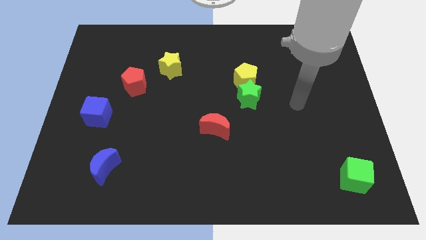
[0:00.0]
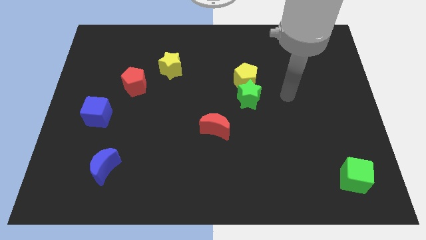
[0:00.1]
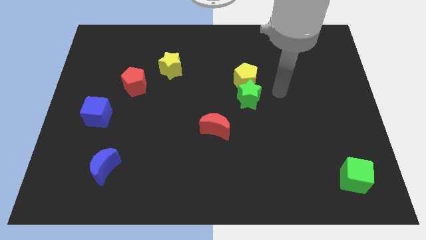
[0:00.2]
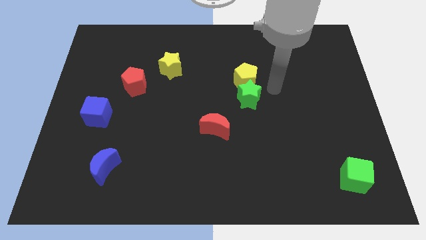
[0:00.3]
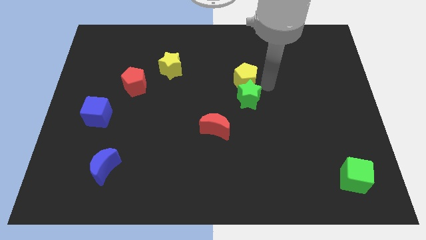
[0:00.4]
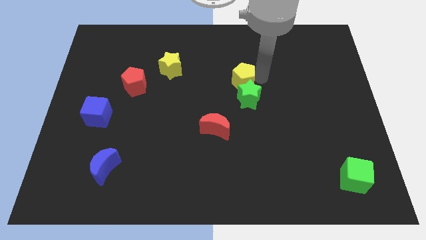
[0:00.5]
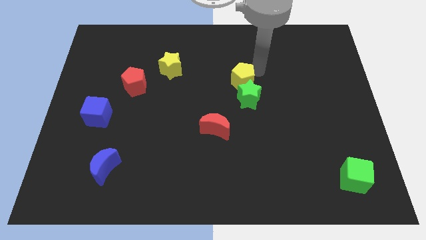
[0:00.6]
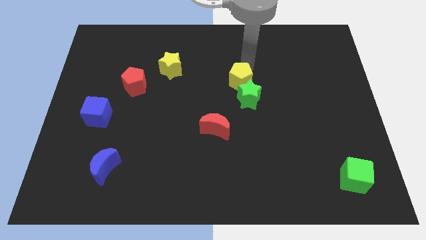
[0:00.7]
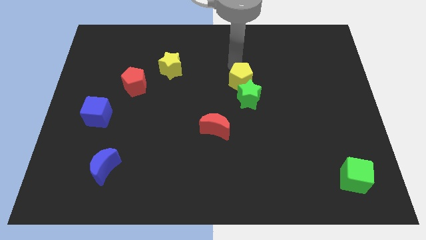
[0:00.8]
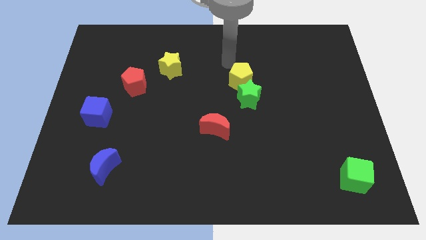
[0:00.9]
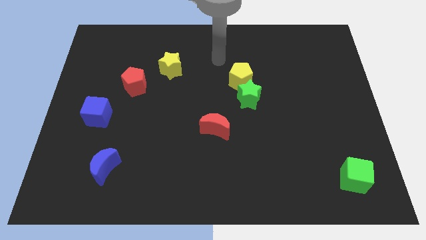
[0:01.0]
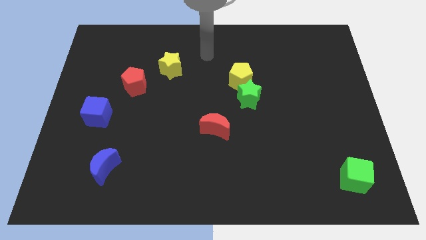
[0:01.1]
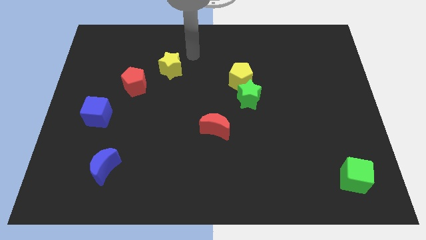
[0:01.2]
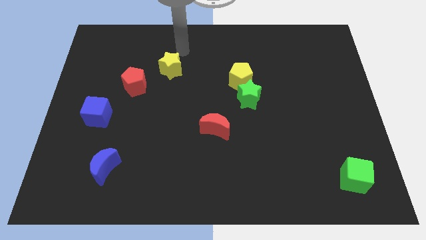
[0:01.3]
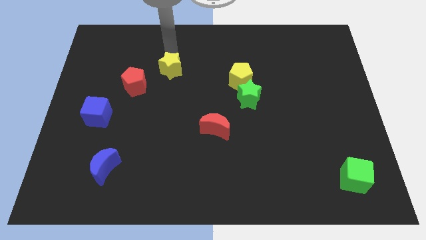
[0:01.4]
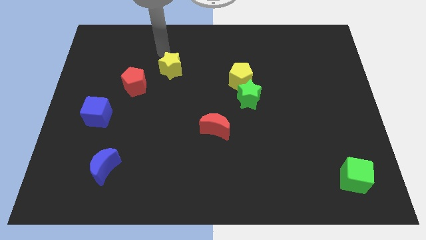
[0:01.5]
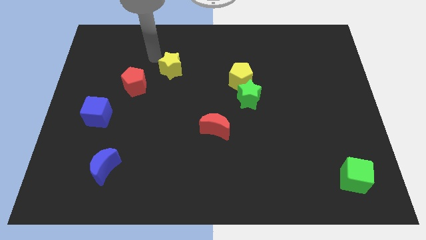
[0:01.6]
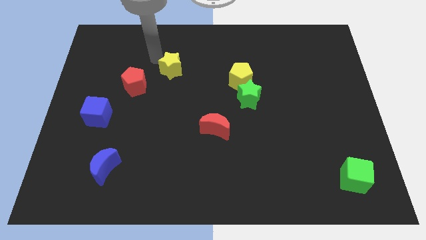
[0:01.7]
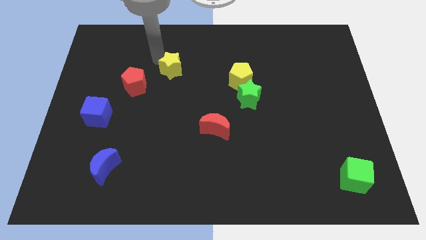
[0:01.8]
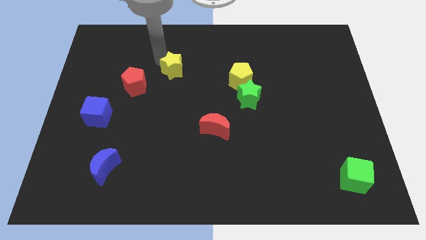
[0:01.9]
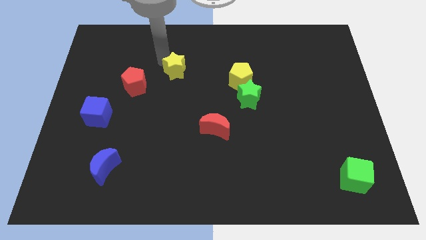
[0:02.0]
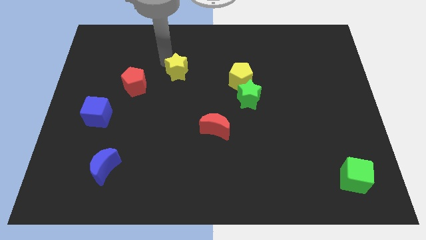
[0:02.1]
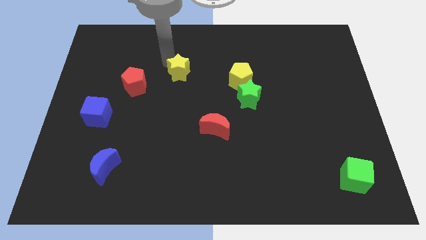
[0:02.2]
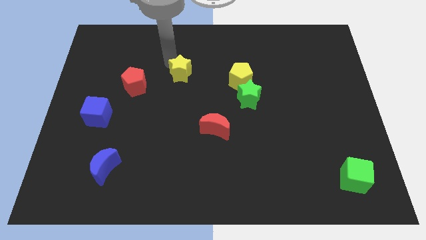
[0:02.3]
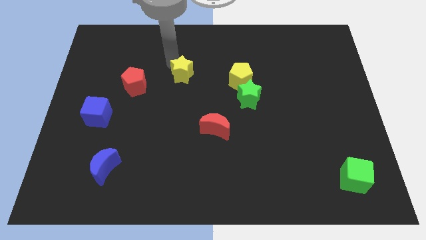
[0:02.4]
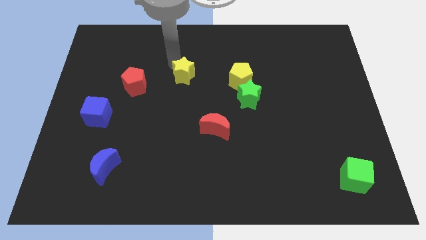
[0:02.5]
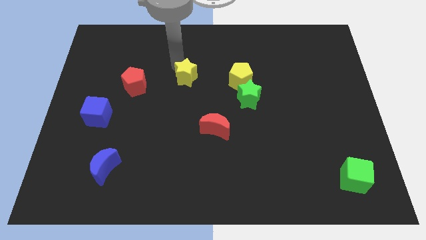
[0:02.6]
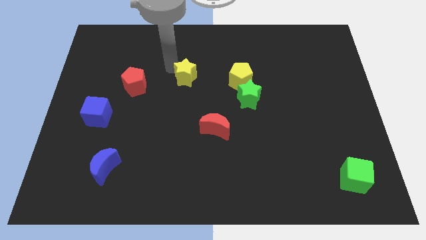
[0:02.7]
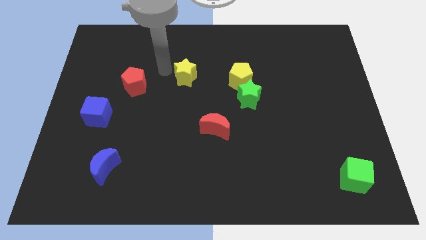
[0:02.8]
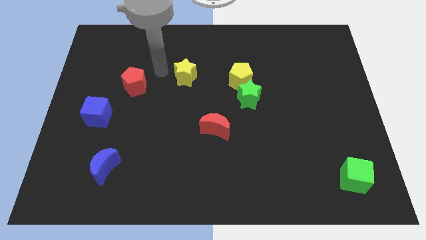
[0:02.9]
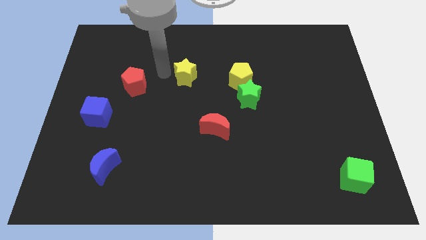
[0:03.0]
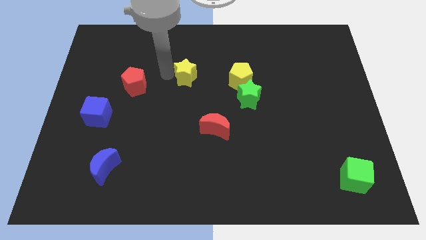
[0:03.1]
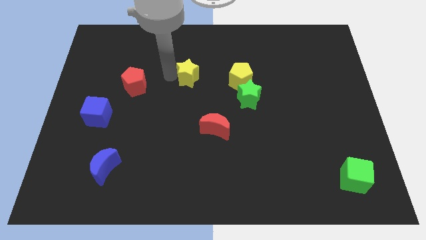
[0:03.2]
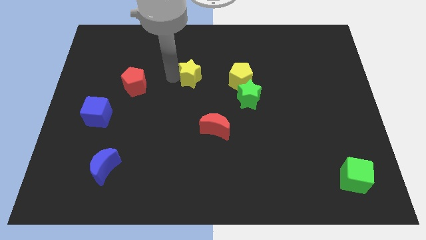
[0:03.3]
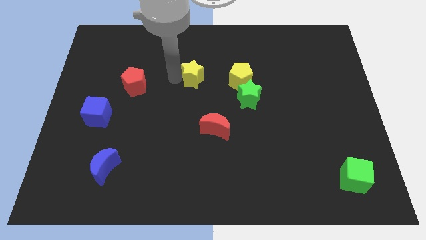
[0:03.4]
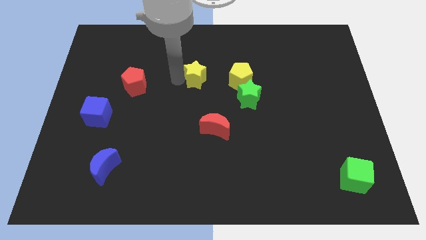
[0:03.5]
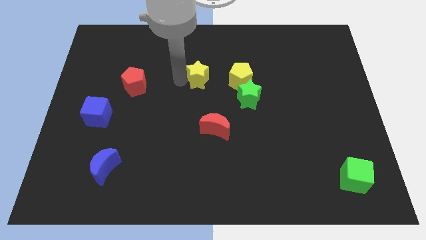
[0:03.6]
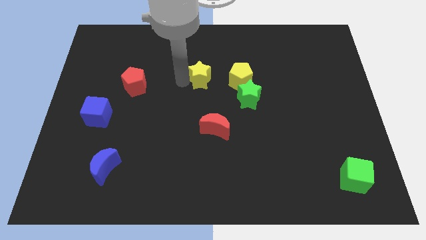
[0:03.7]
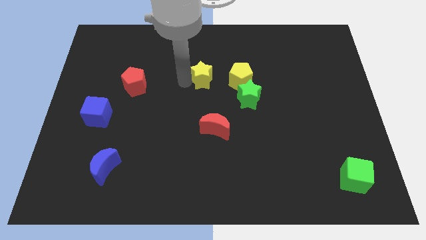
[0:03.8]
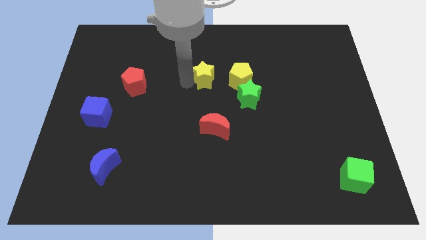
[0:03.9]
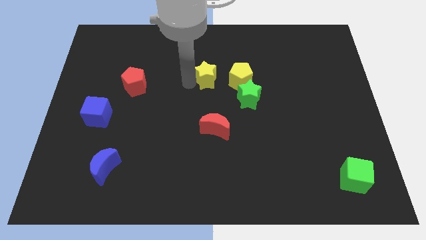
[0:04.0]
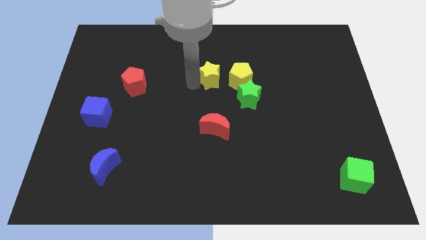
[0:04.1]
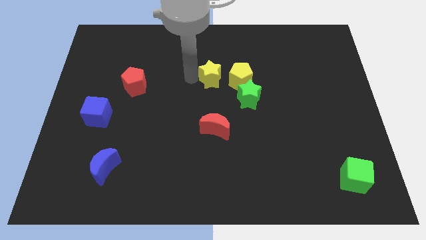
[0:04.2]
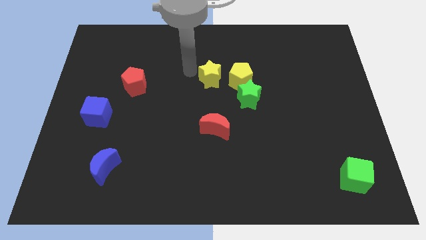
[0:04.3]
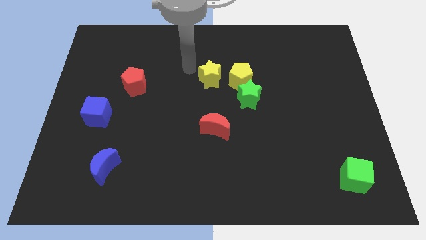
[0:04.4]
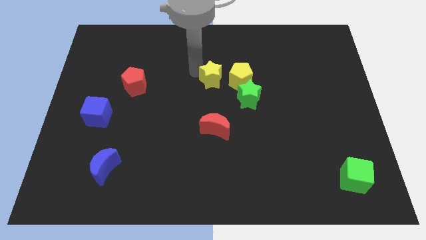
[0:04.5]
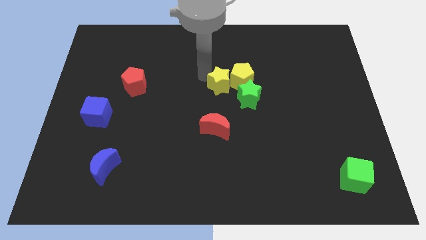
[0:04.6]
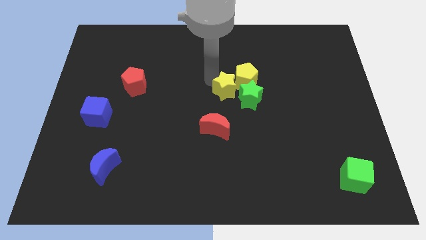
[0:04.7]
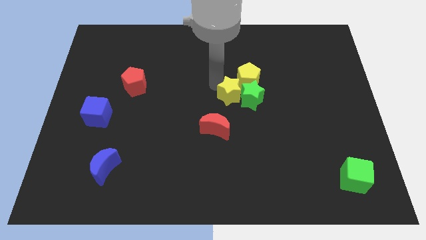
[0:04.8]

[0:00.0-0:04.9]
move the yellow star to the green star

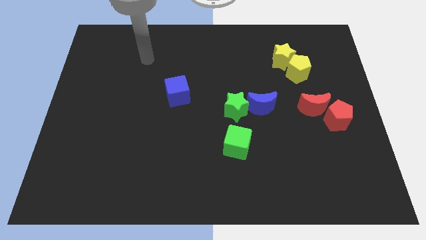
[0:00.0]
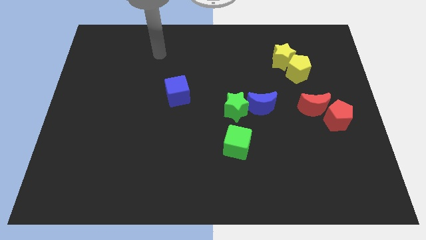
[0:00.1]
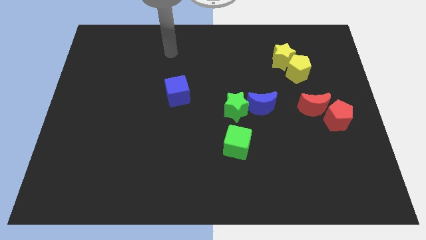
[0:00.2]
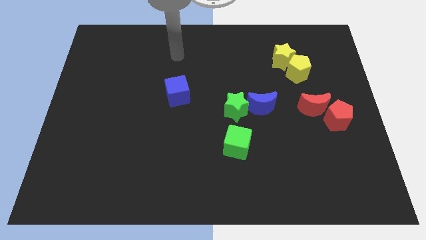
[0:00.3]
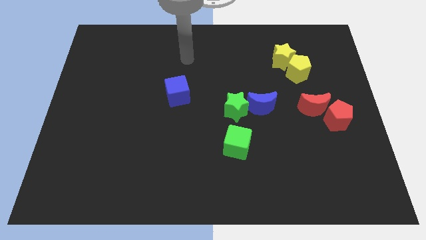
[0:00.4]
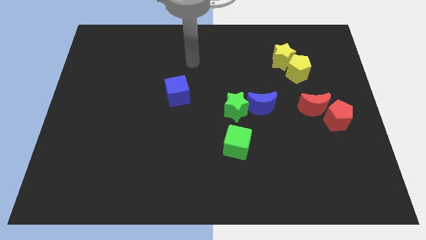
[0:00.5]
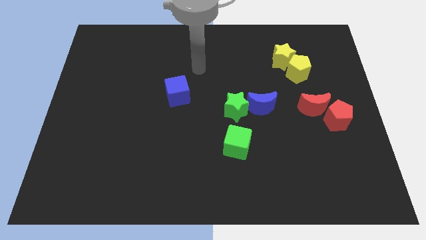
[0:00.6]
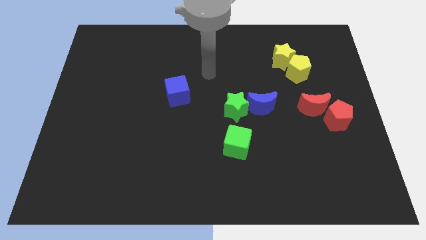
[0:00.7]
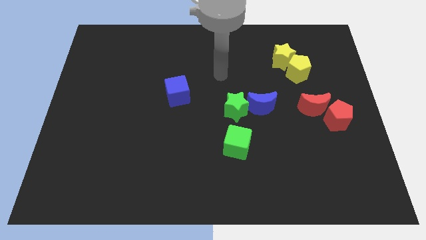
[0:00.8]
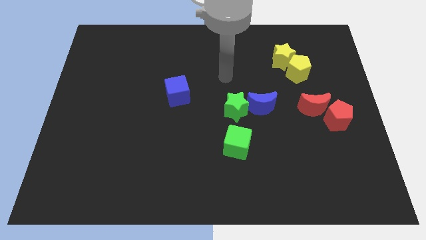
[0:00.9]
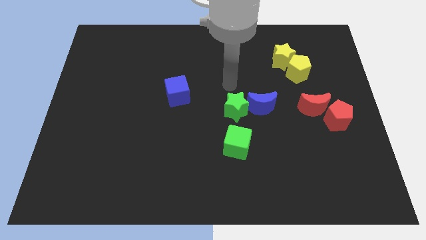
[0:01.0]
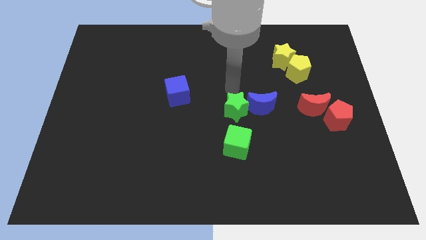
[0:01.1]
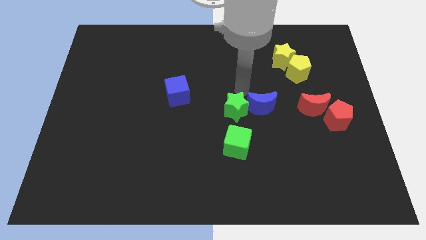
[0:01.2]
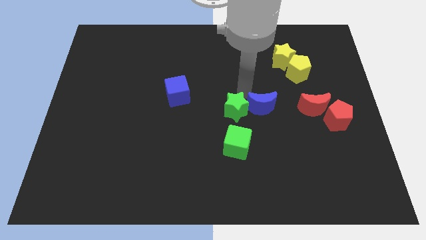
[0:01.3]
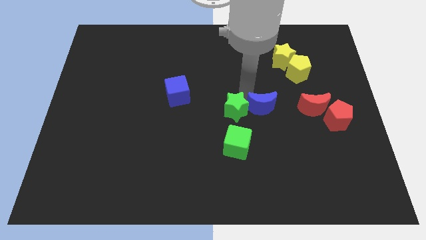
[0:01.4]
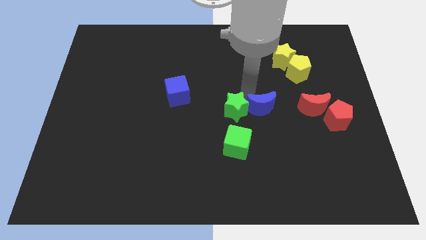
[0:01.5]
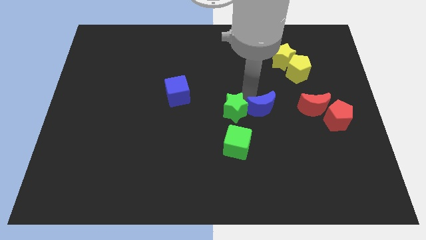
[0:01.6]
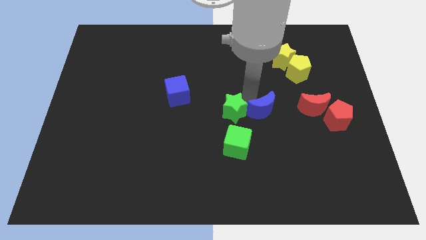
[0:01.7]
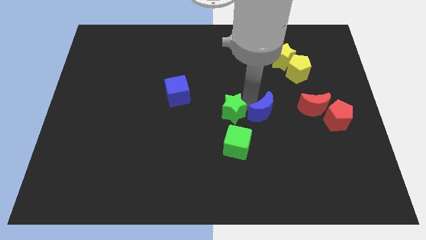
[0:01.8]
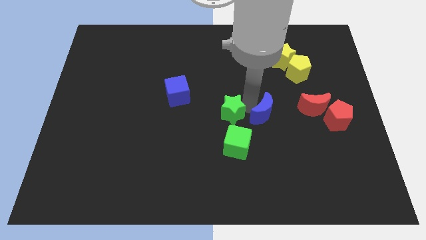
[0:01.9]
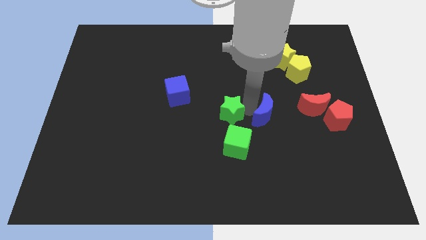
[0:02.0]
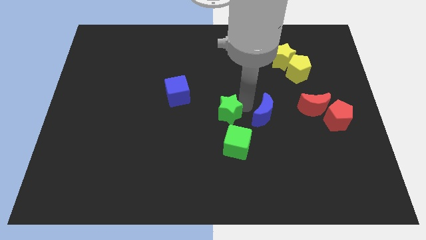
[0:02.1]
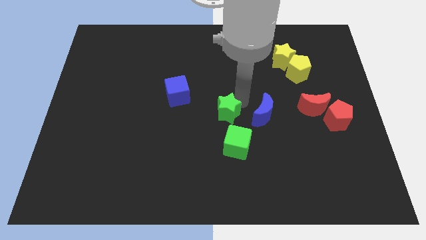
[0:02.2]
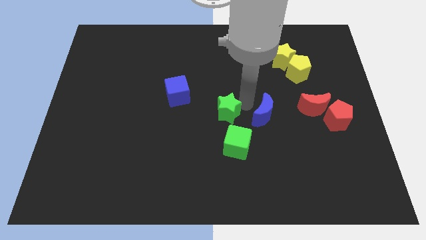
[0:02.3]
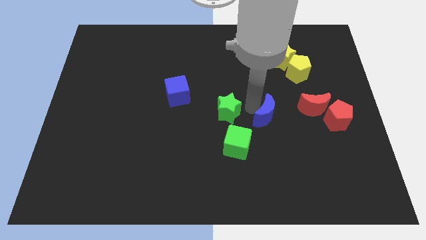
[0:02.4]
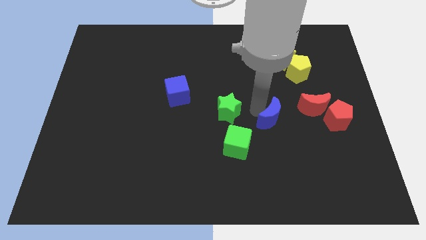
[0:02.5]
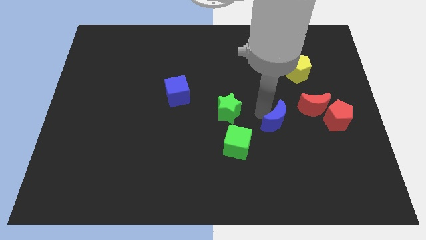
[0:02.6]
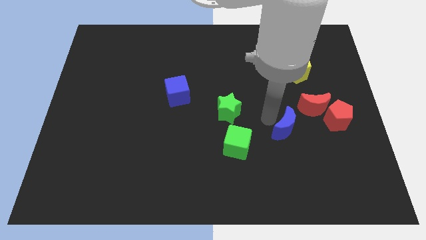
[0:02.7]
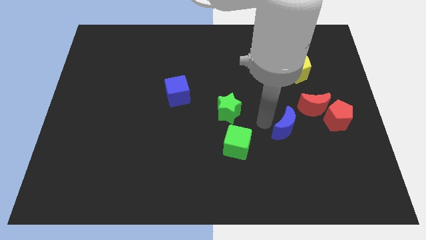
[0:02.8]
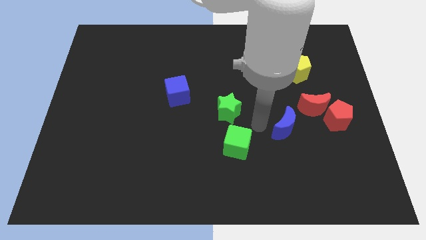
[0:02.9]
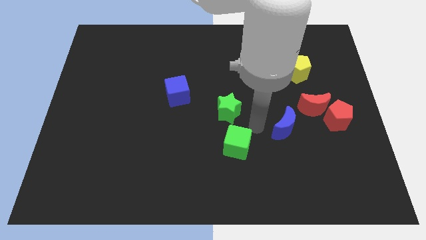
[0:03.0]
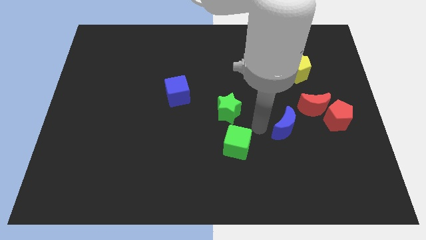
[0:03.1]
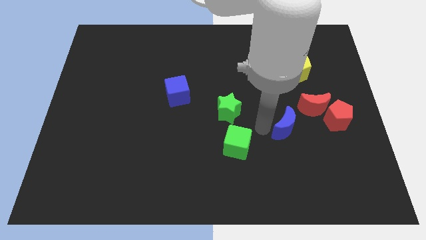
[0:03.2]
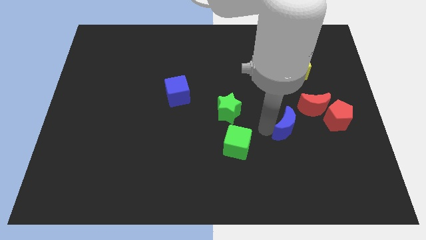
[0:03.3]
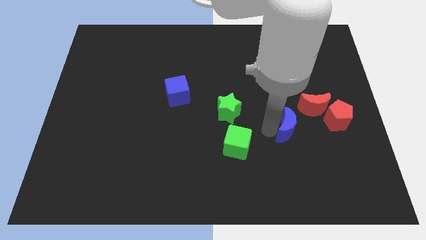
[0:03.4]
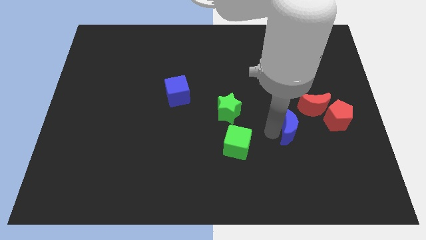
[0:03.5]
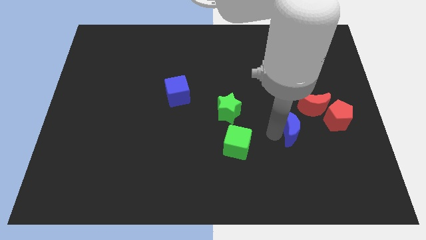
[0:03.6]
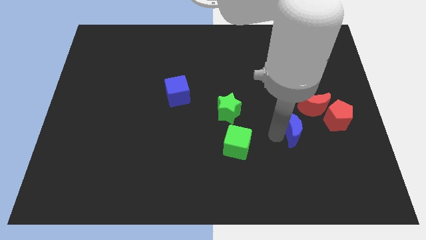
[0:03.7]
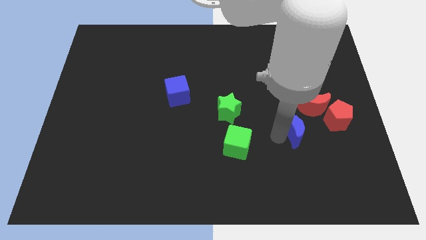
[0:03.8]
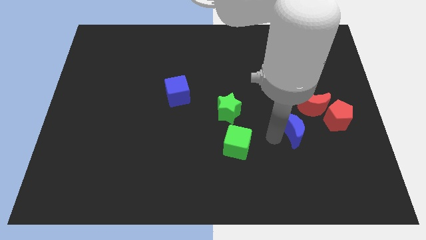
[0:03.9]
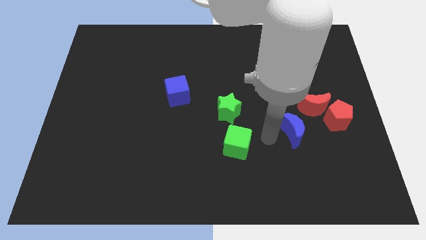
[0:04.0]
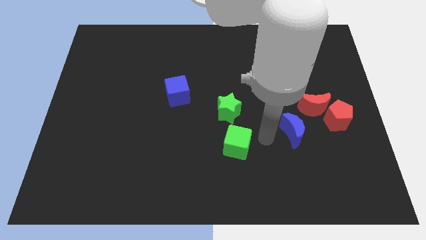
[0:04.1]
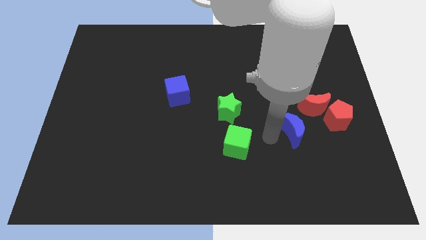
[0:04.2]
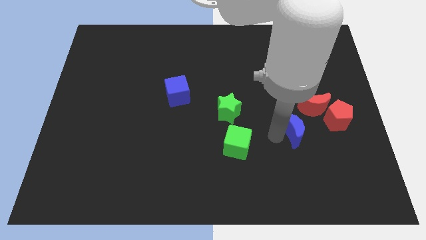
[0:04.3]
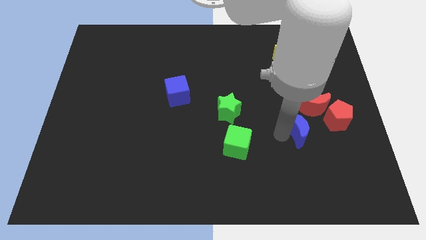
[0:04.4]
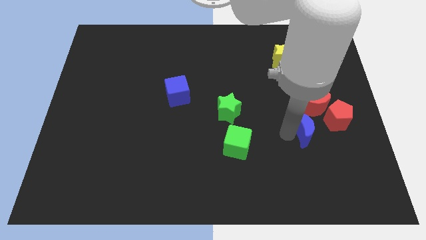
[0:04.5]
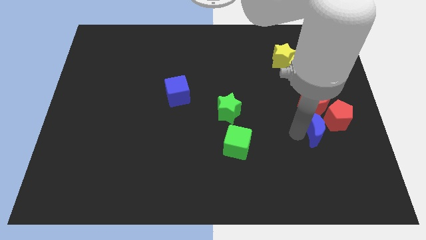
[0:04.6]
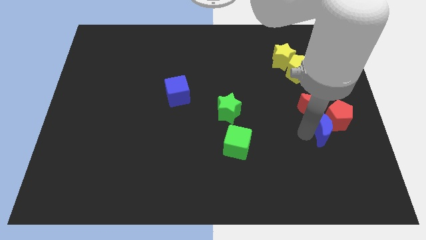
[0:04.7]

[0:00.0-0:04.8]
put the blue moon to the red pentagon
